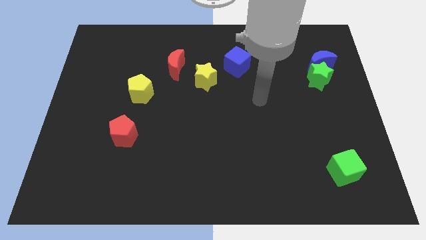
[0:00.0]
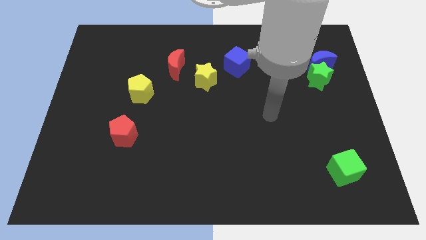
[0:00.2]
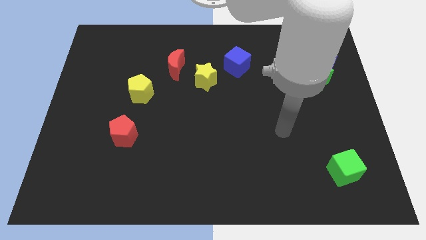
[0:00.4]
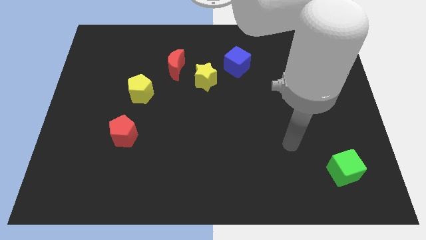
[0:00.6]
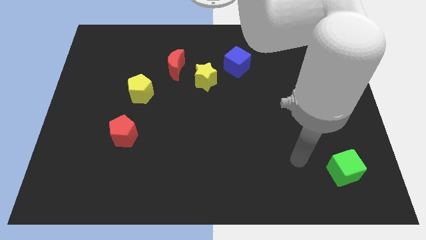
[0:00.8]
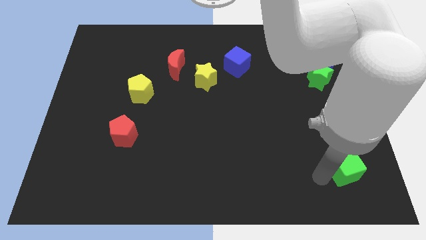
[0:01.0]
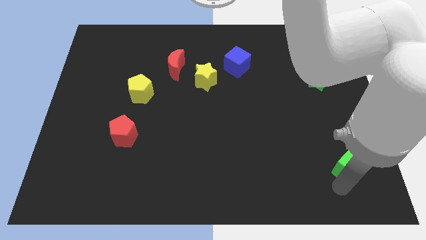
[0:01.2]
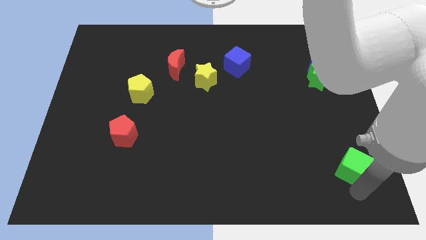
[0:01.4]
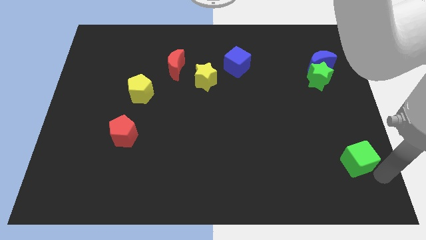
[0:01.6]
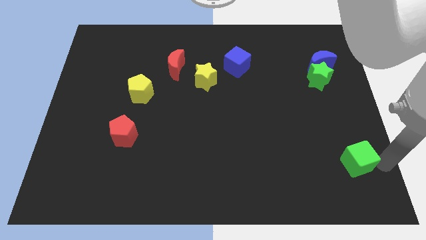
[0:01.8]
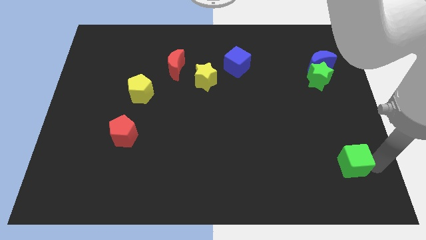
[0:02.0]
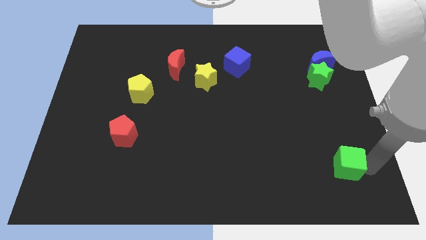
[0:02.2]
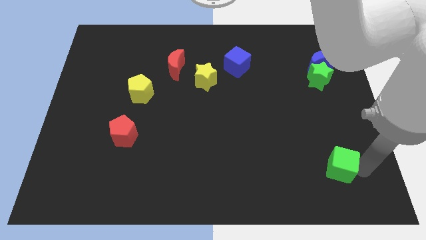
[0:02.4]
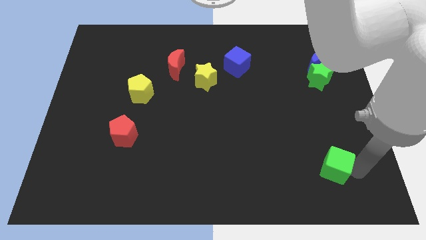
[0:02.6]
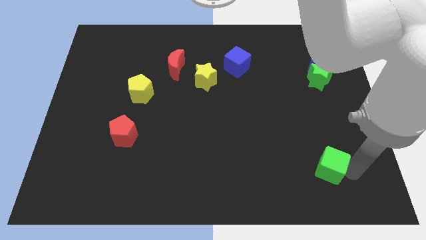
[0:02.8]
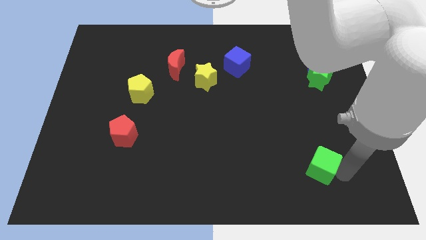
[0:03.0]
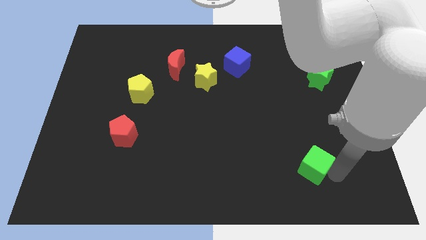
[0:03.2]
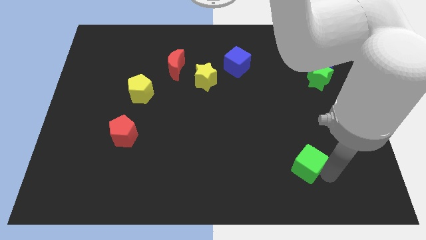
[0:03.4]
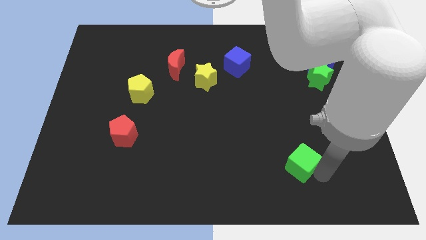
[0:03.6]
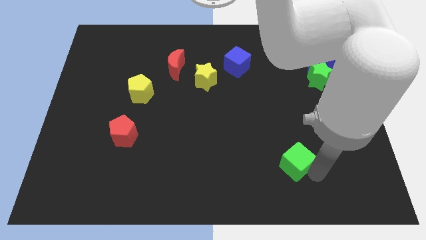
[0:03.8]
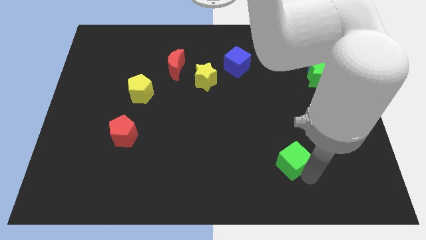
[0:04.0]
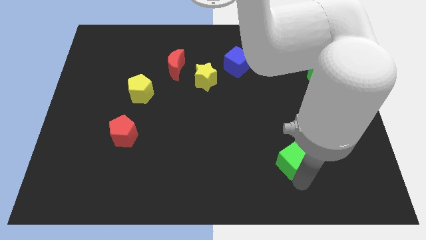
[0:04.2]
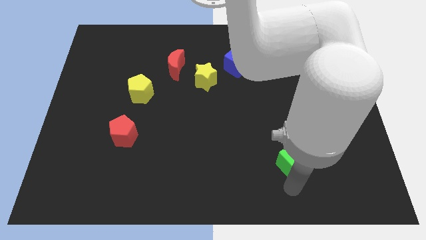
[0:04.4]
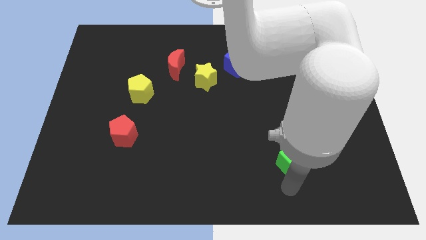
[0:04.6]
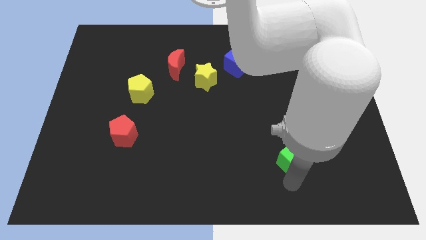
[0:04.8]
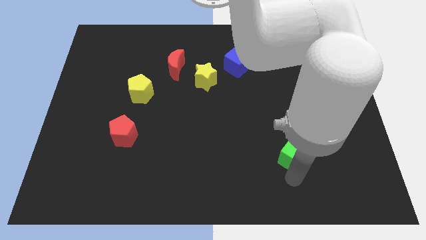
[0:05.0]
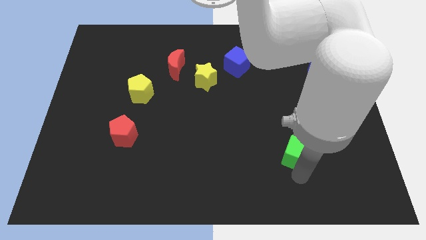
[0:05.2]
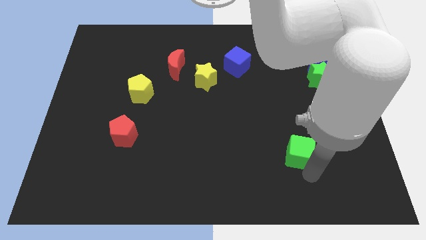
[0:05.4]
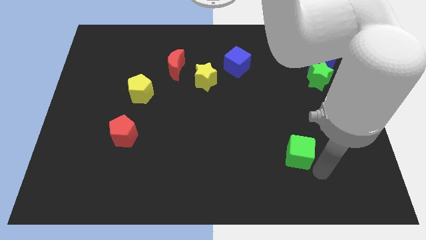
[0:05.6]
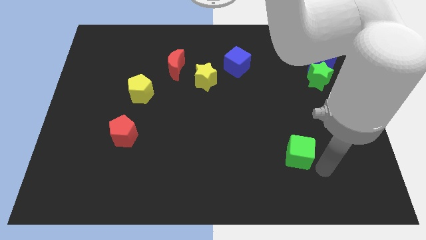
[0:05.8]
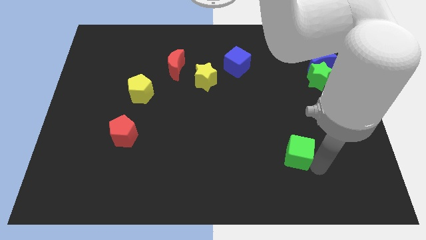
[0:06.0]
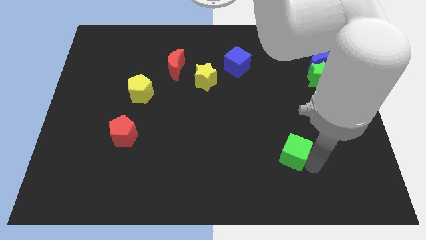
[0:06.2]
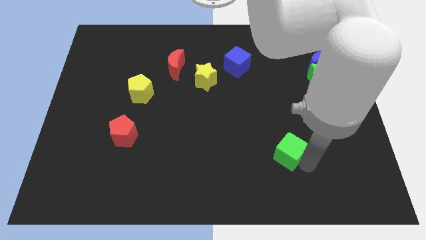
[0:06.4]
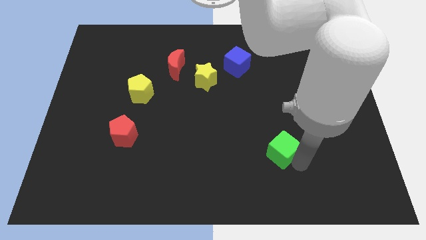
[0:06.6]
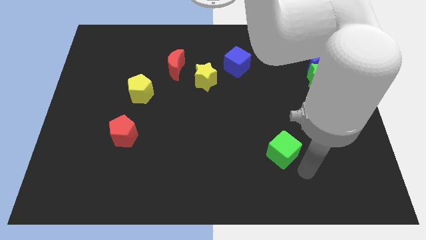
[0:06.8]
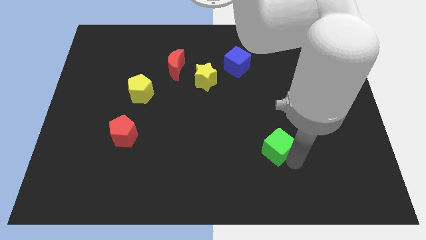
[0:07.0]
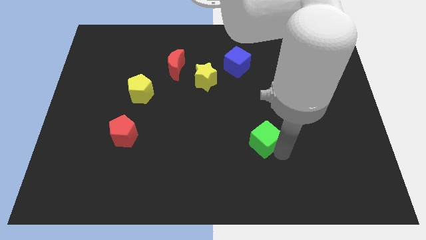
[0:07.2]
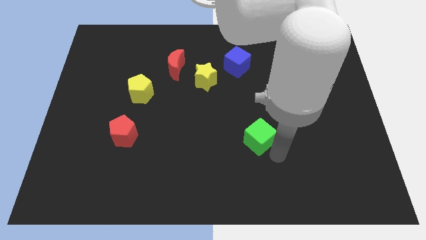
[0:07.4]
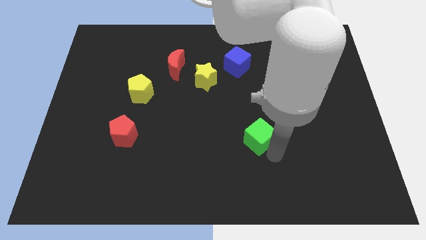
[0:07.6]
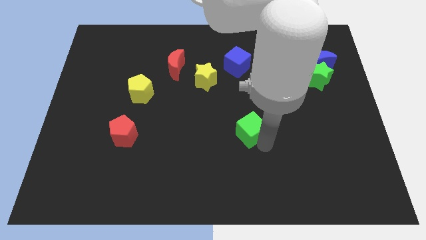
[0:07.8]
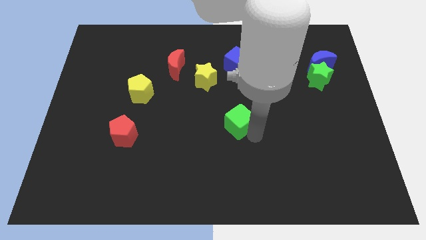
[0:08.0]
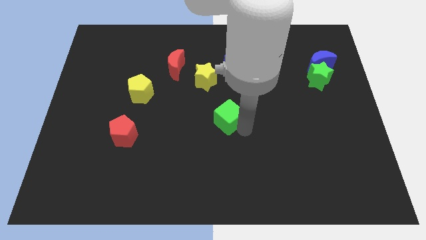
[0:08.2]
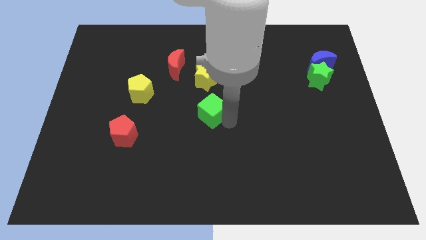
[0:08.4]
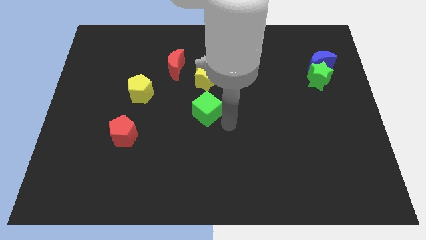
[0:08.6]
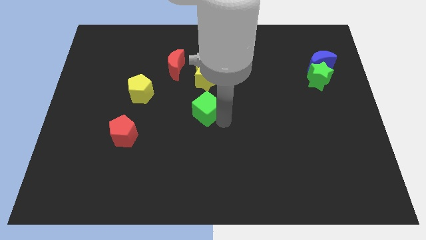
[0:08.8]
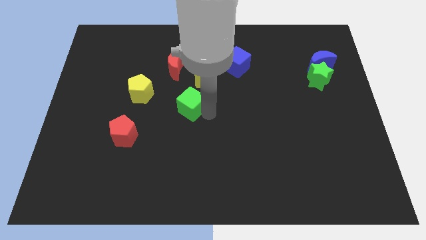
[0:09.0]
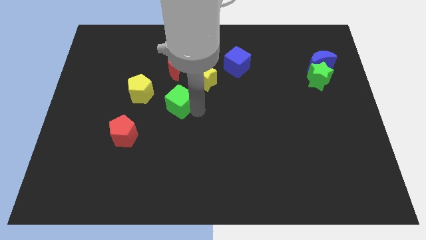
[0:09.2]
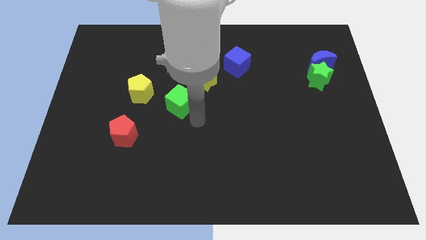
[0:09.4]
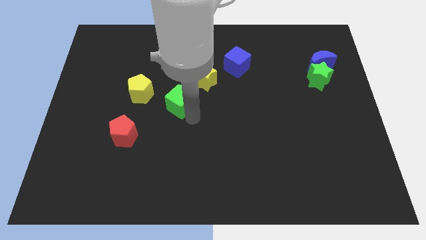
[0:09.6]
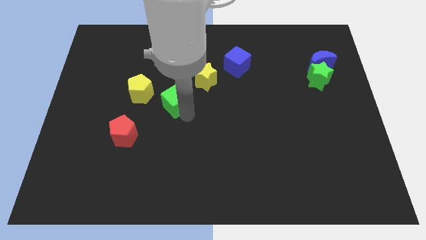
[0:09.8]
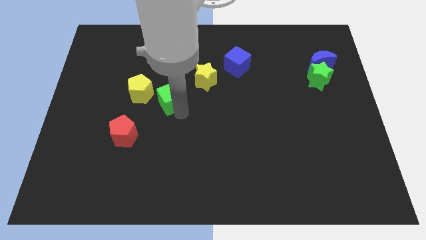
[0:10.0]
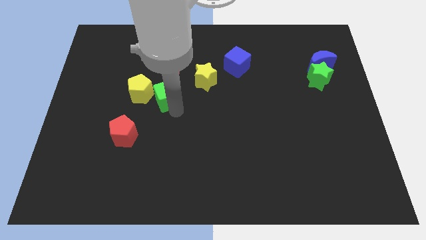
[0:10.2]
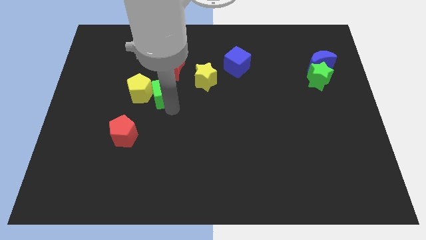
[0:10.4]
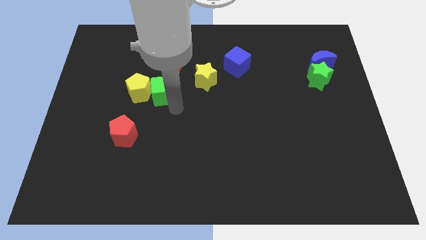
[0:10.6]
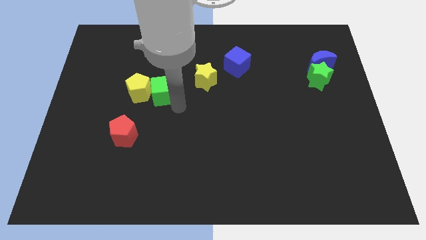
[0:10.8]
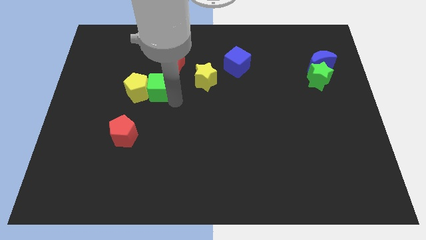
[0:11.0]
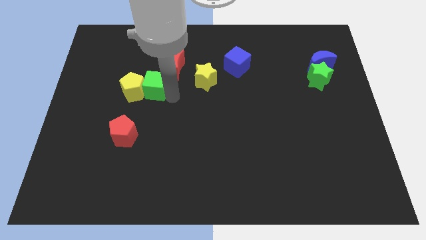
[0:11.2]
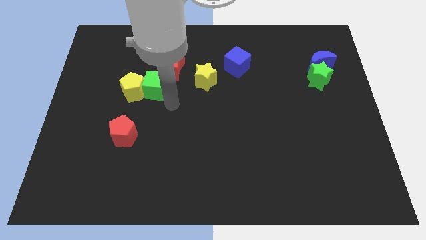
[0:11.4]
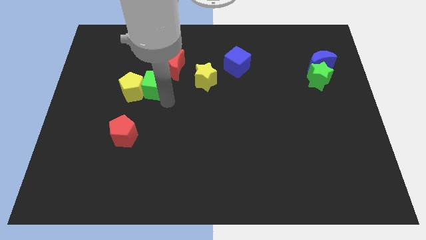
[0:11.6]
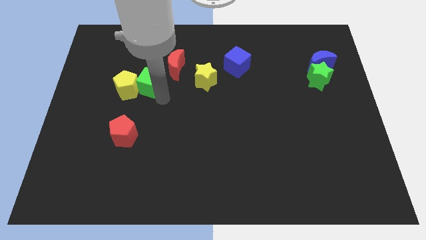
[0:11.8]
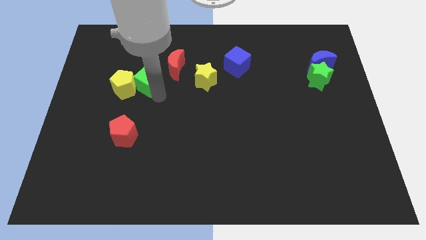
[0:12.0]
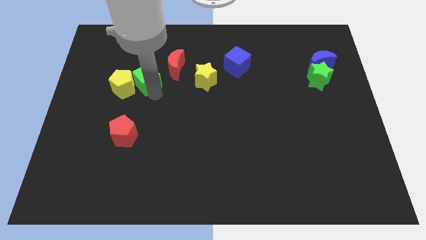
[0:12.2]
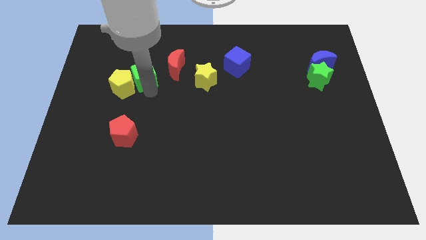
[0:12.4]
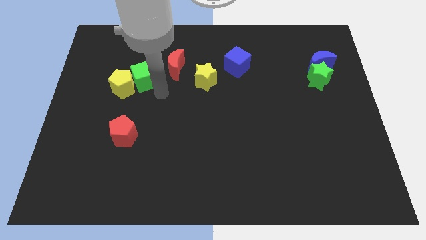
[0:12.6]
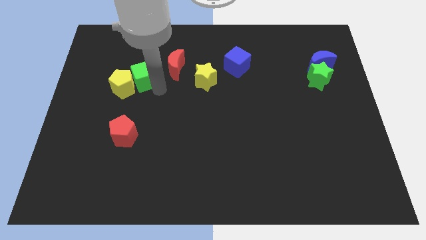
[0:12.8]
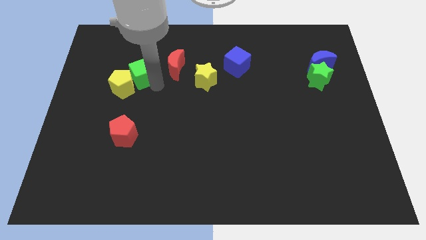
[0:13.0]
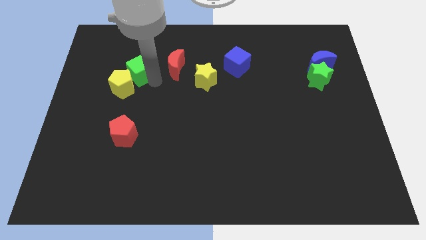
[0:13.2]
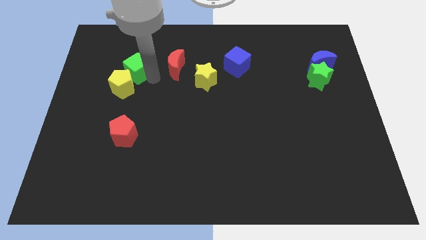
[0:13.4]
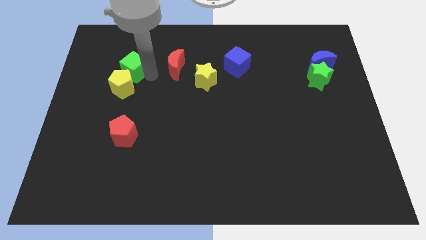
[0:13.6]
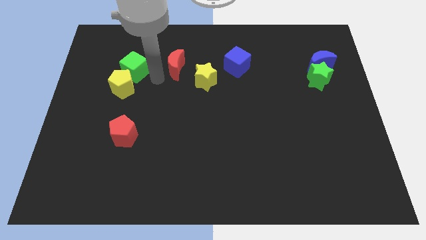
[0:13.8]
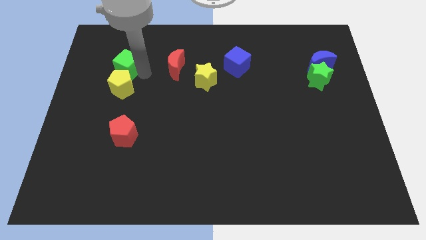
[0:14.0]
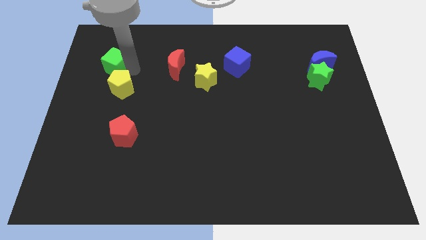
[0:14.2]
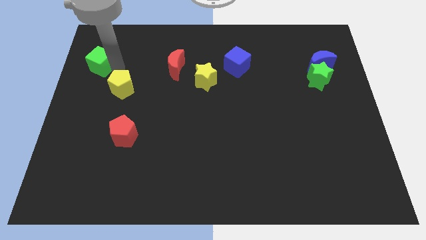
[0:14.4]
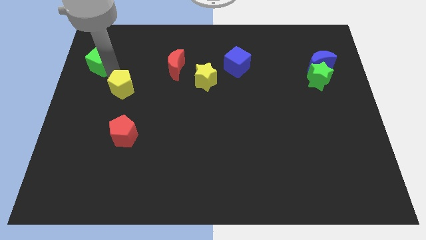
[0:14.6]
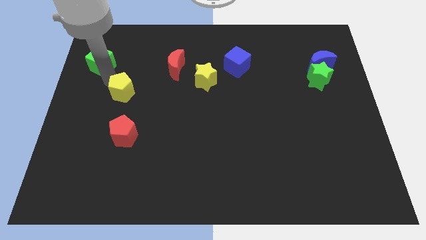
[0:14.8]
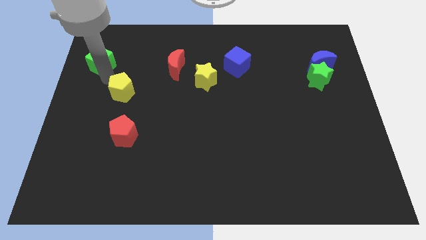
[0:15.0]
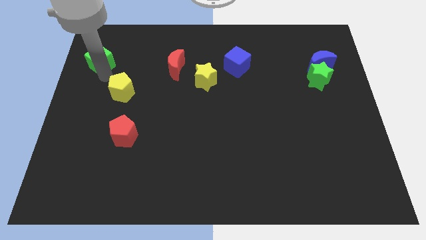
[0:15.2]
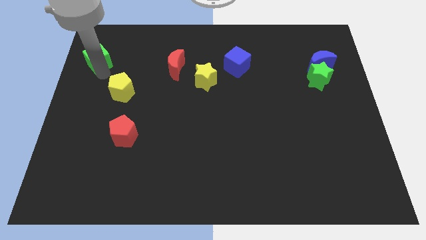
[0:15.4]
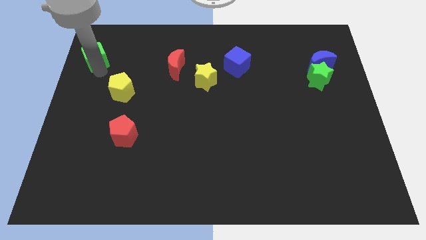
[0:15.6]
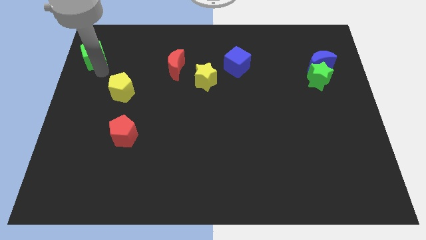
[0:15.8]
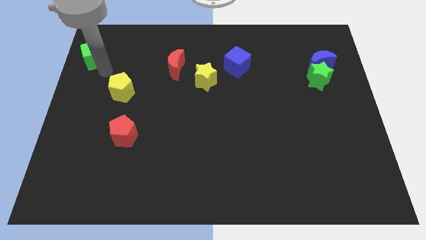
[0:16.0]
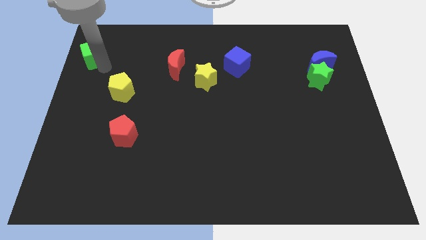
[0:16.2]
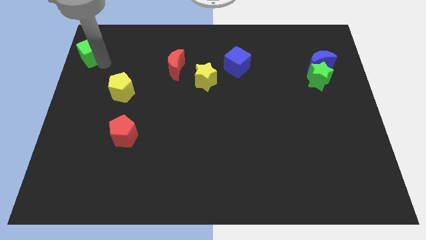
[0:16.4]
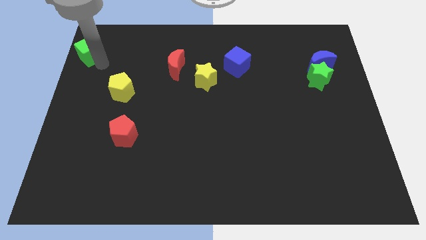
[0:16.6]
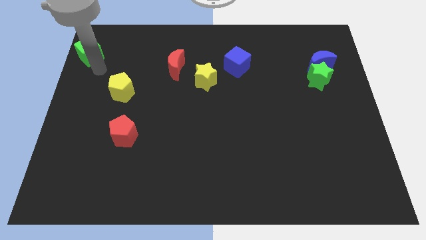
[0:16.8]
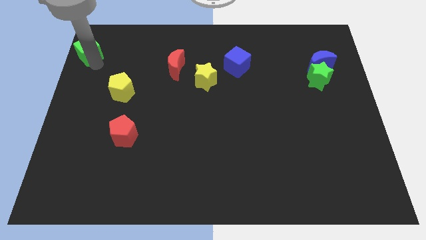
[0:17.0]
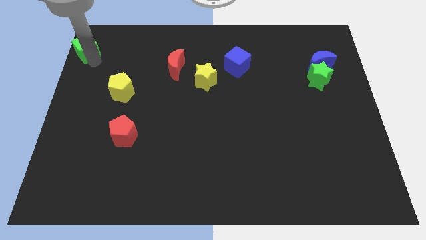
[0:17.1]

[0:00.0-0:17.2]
push the green cube to the top left of the board
